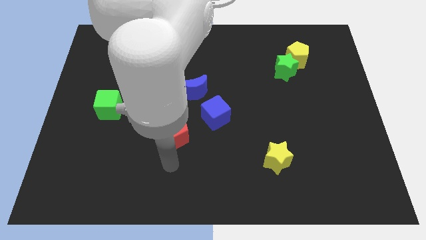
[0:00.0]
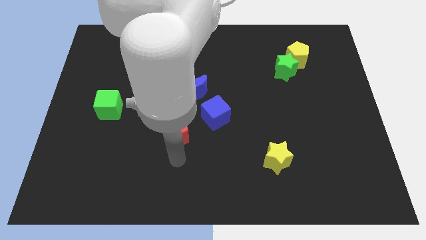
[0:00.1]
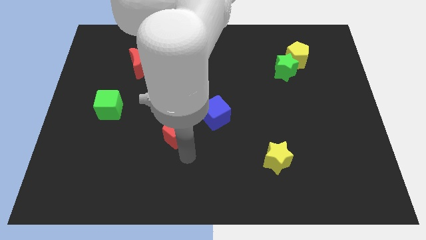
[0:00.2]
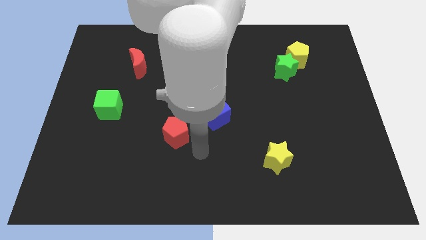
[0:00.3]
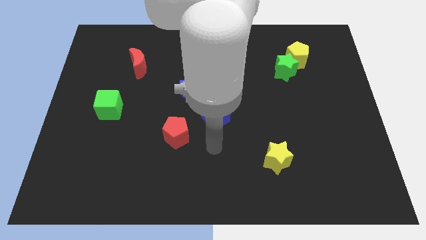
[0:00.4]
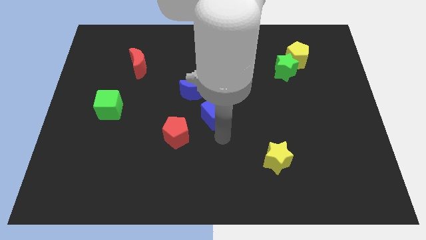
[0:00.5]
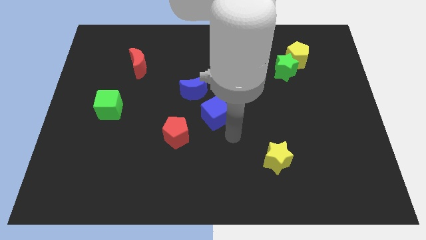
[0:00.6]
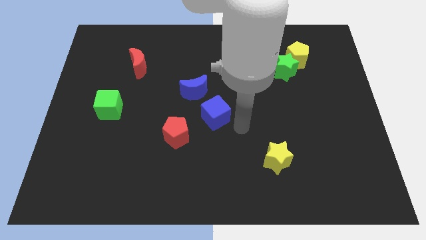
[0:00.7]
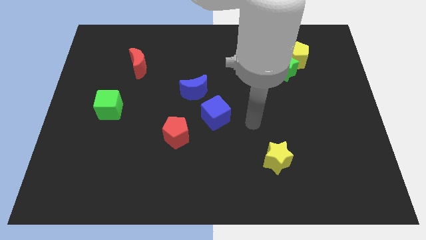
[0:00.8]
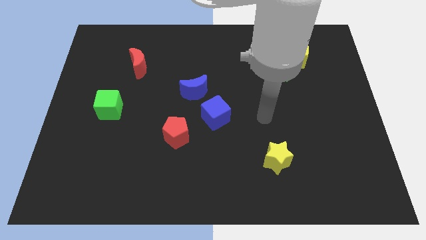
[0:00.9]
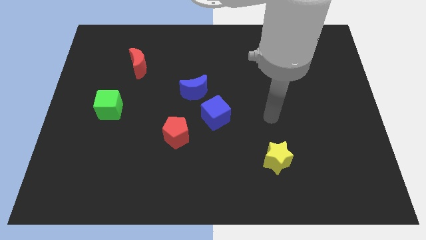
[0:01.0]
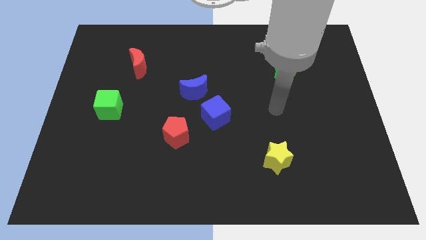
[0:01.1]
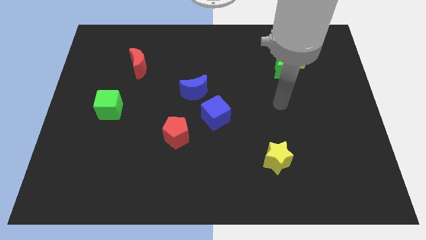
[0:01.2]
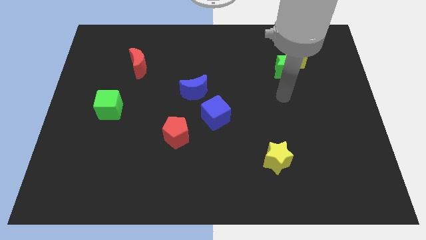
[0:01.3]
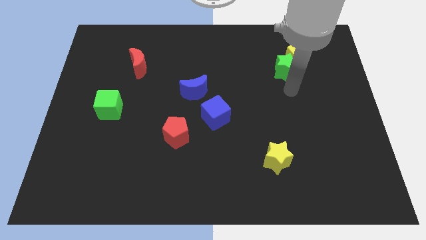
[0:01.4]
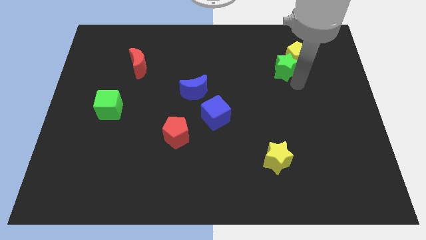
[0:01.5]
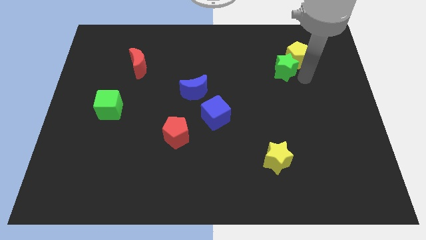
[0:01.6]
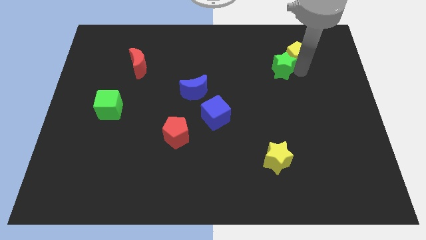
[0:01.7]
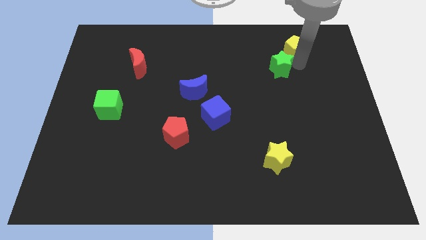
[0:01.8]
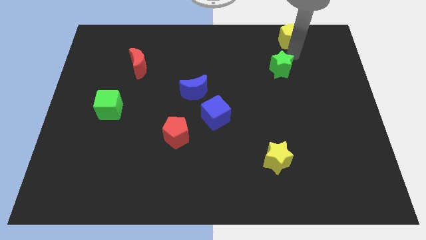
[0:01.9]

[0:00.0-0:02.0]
pull the green star apart from the yellow pentagon

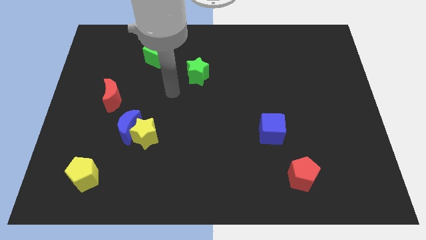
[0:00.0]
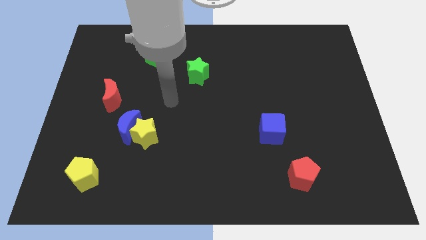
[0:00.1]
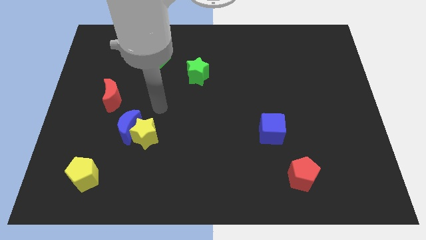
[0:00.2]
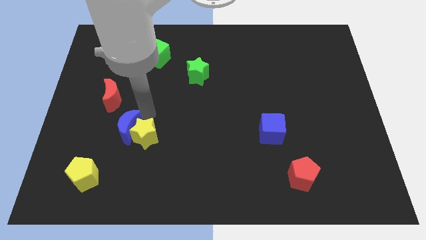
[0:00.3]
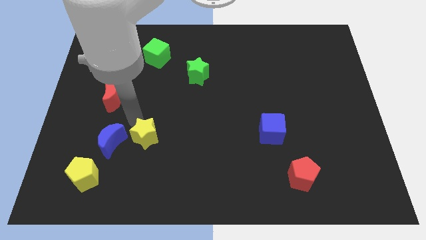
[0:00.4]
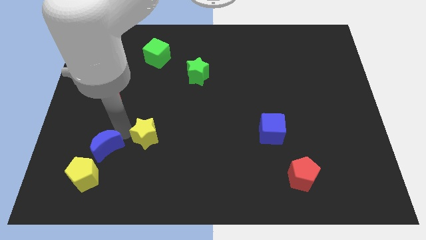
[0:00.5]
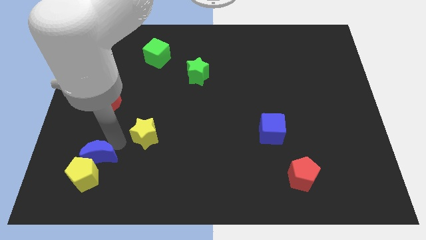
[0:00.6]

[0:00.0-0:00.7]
move the yellow star away from the blue moon

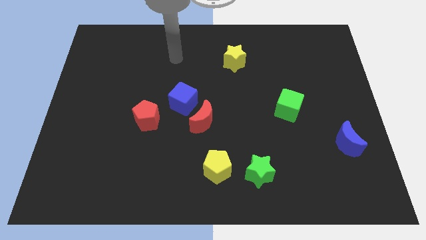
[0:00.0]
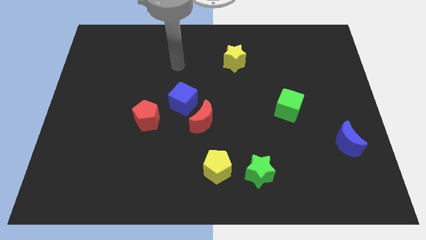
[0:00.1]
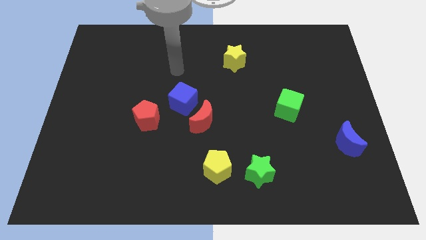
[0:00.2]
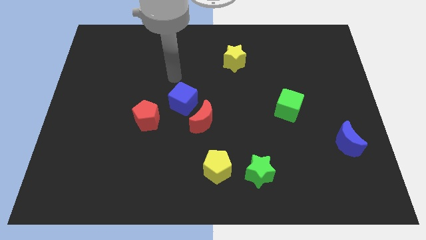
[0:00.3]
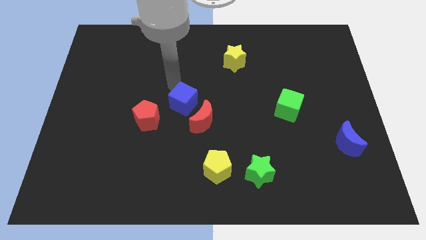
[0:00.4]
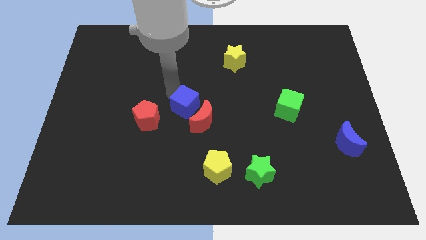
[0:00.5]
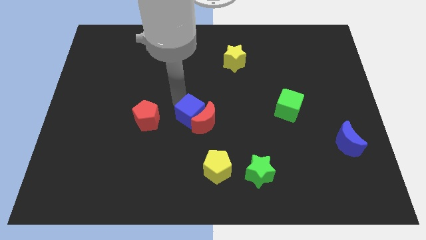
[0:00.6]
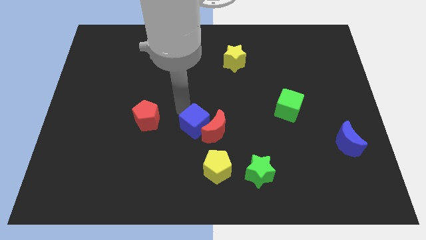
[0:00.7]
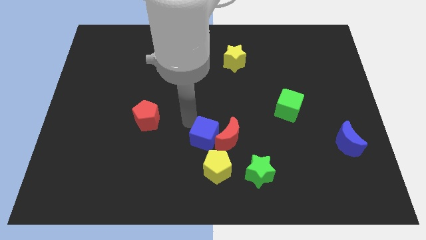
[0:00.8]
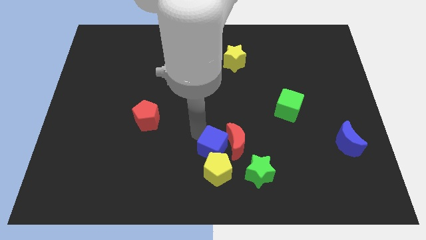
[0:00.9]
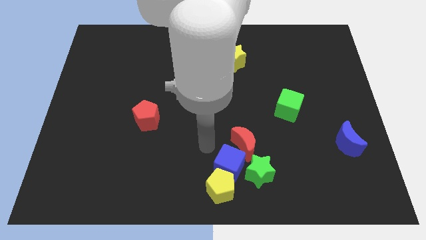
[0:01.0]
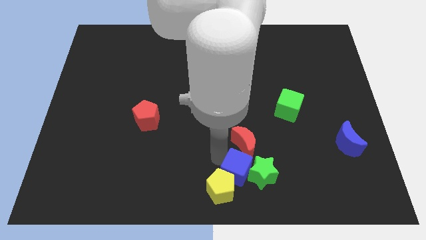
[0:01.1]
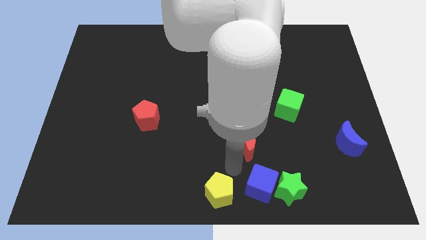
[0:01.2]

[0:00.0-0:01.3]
separate the red moon from the blue cube

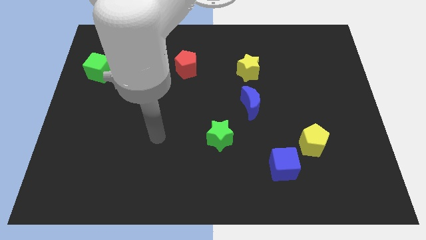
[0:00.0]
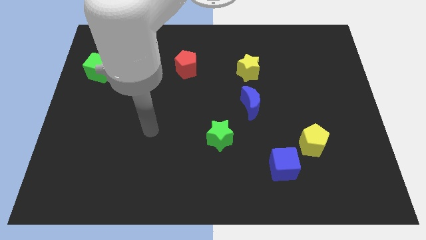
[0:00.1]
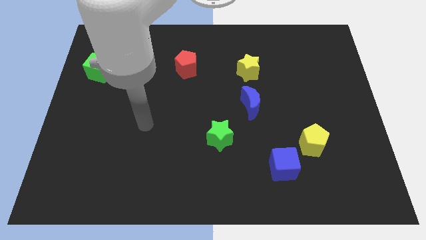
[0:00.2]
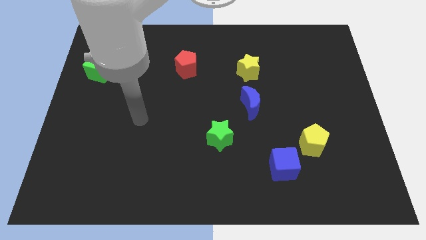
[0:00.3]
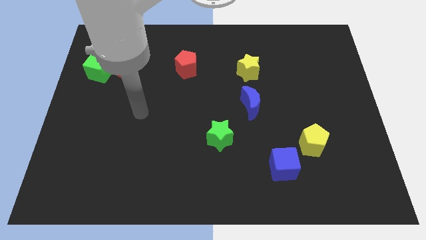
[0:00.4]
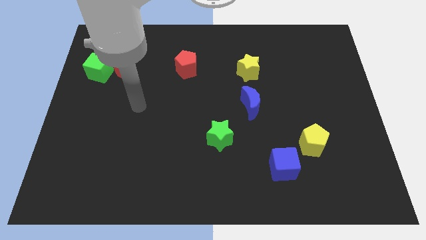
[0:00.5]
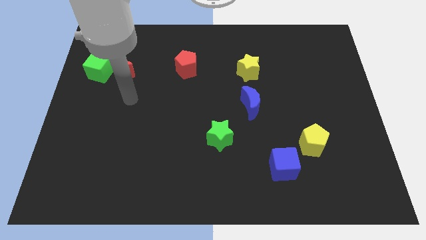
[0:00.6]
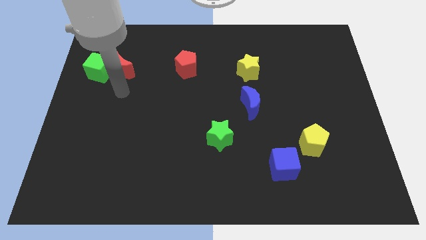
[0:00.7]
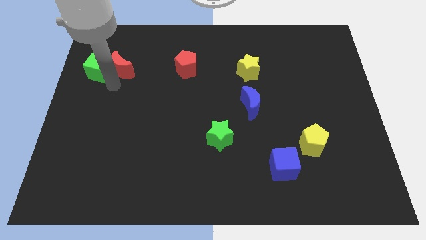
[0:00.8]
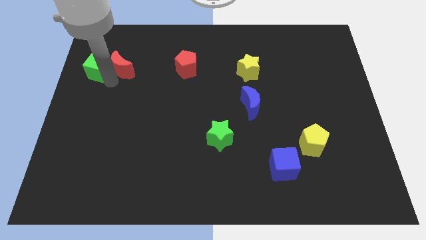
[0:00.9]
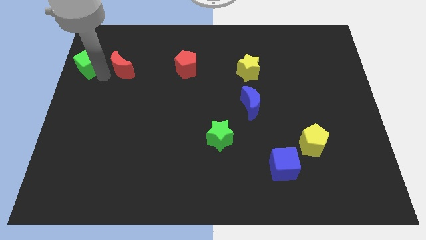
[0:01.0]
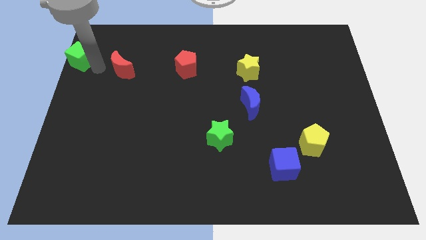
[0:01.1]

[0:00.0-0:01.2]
pull the red moon apart from the green cube

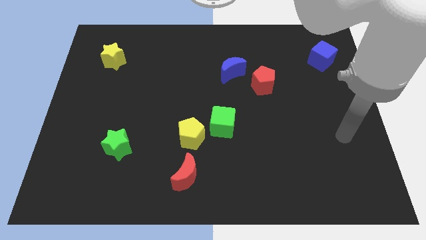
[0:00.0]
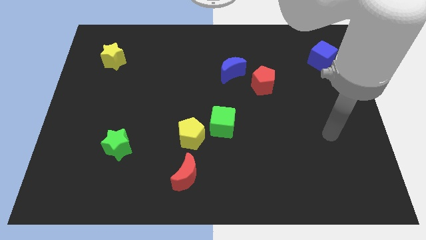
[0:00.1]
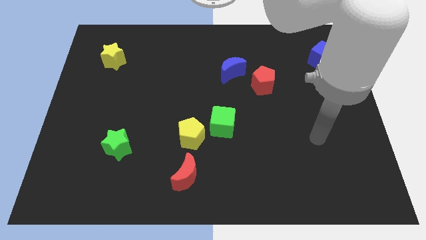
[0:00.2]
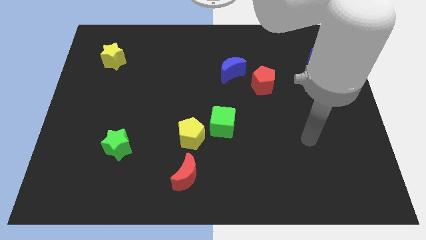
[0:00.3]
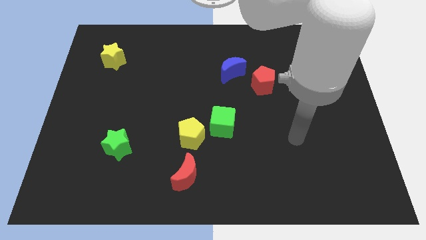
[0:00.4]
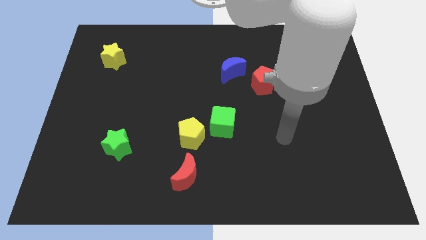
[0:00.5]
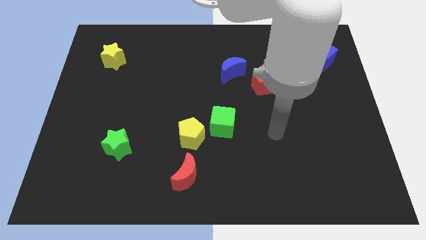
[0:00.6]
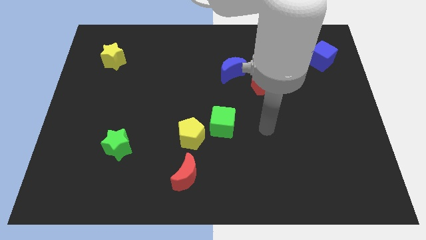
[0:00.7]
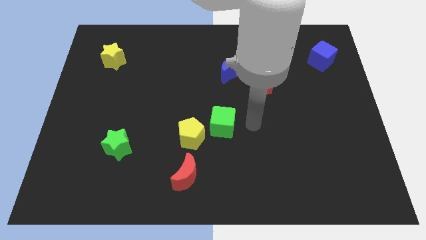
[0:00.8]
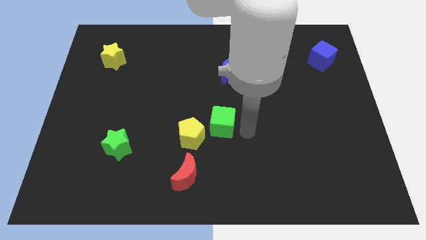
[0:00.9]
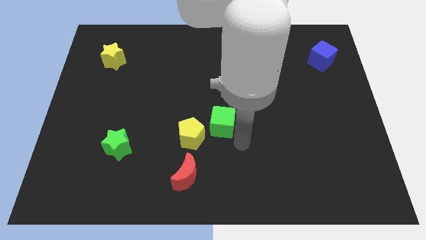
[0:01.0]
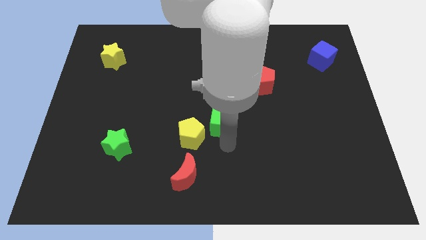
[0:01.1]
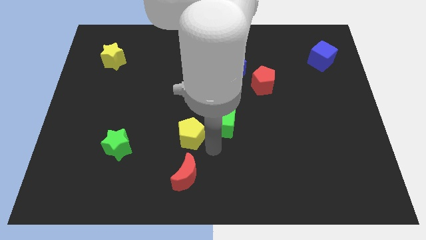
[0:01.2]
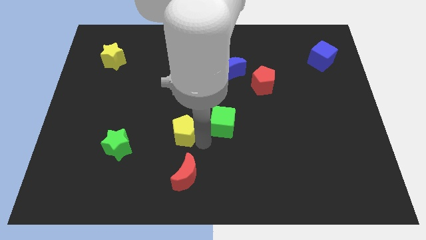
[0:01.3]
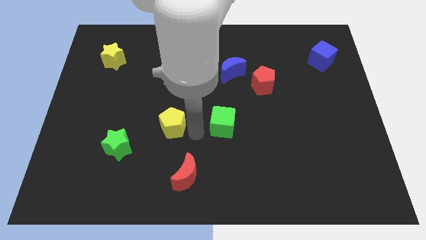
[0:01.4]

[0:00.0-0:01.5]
separate the green cube from the yellow pentagon

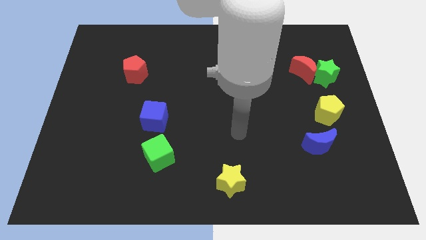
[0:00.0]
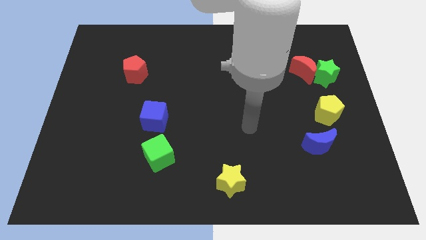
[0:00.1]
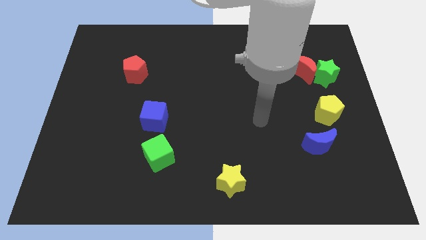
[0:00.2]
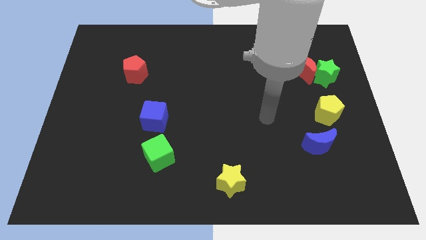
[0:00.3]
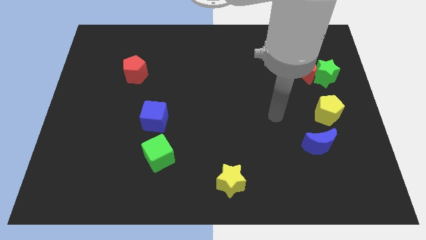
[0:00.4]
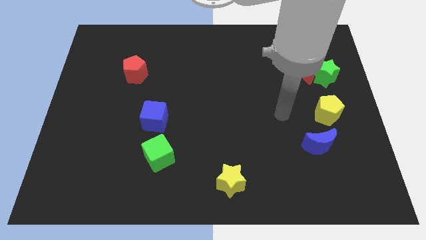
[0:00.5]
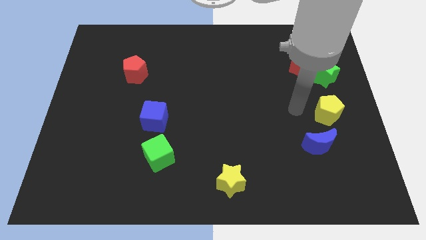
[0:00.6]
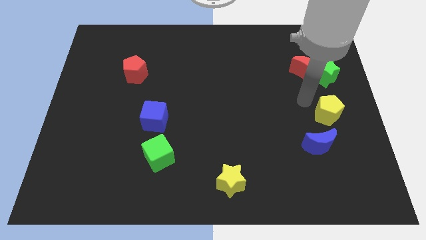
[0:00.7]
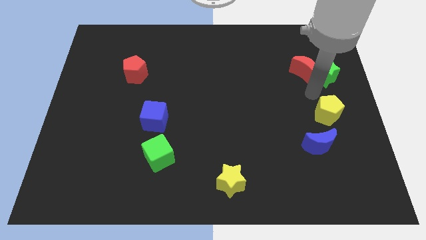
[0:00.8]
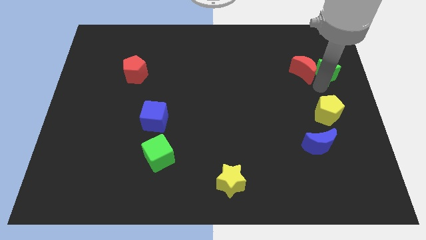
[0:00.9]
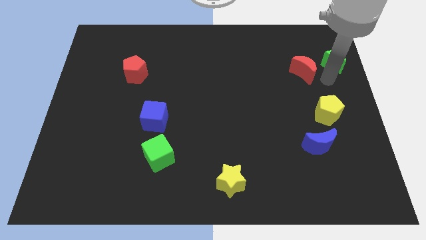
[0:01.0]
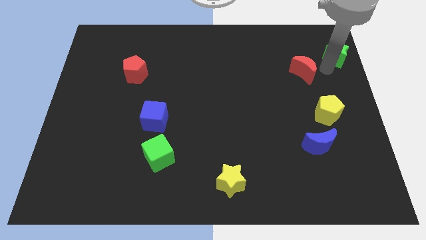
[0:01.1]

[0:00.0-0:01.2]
pull the red moon apart from the green star

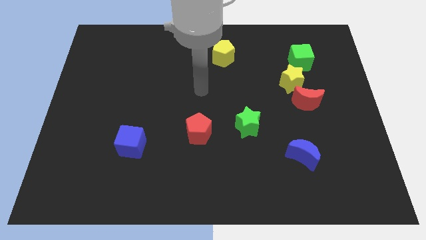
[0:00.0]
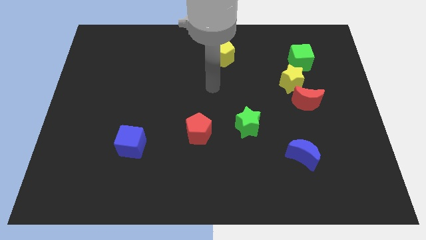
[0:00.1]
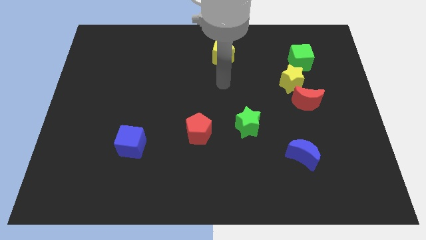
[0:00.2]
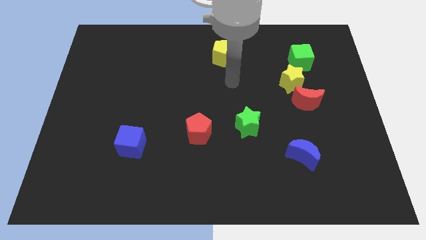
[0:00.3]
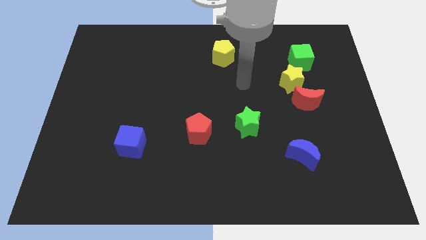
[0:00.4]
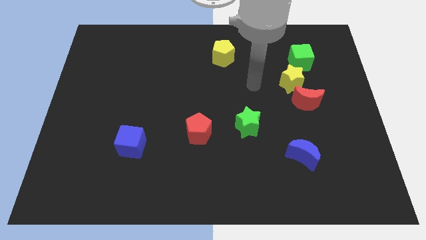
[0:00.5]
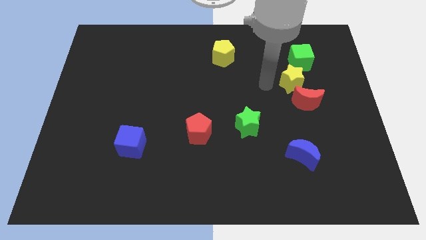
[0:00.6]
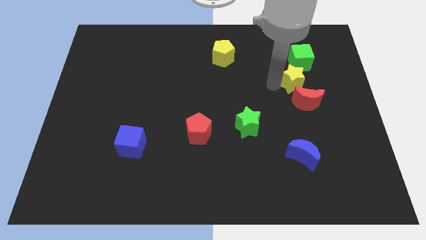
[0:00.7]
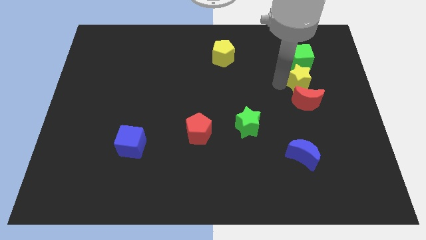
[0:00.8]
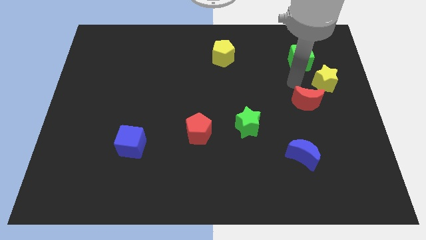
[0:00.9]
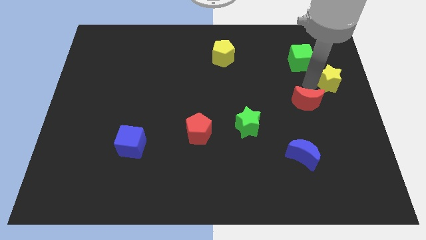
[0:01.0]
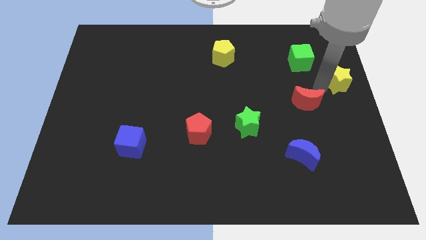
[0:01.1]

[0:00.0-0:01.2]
separate the red moon from the yellow star
